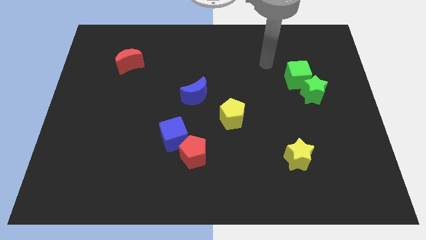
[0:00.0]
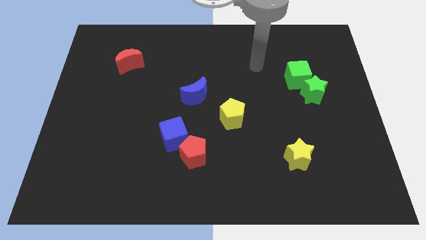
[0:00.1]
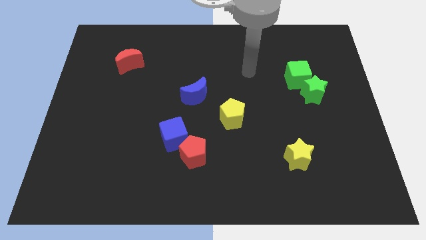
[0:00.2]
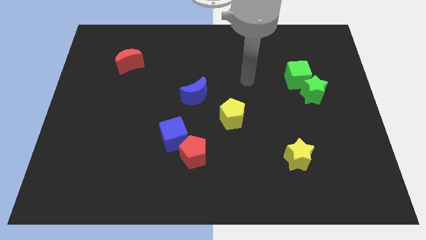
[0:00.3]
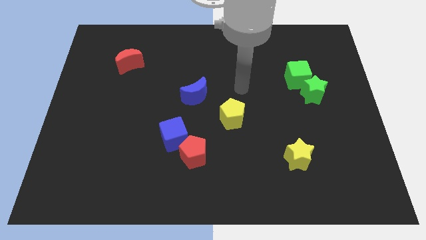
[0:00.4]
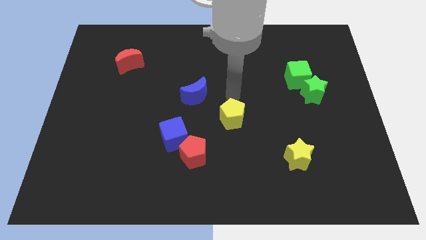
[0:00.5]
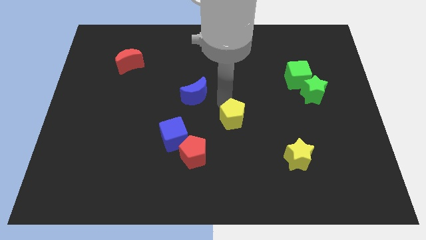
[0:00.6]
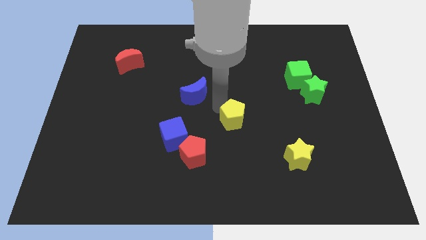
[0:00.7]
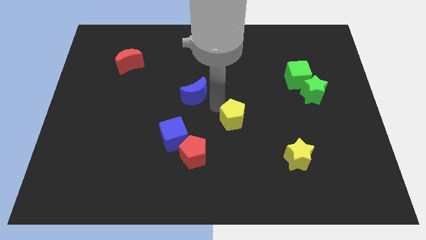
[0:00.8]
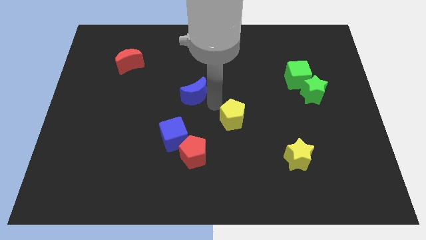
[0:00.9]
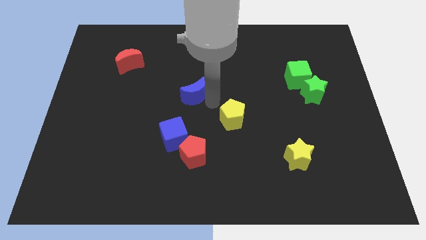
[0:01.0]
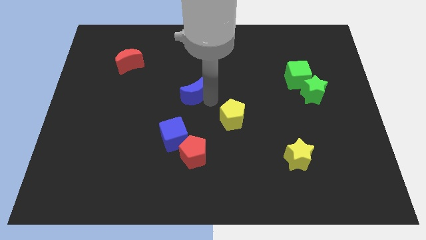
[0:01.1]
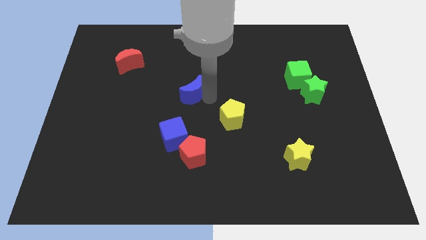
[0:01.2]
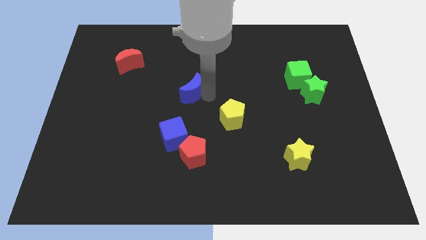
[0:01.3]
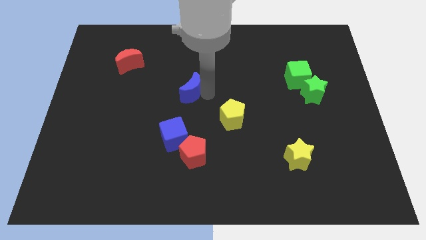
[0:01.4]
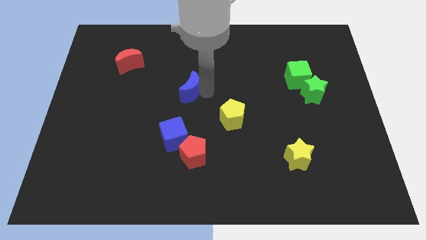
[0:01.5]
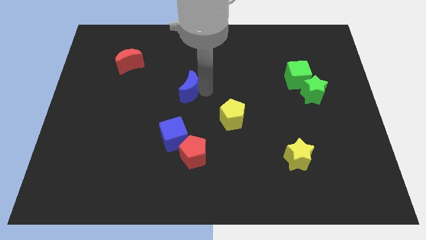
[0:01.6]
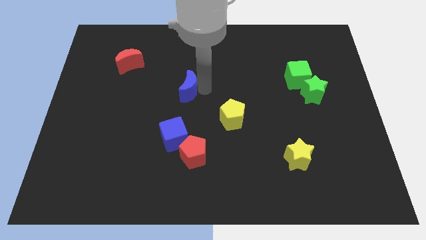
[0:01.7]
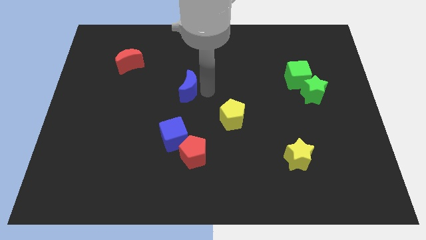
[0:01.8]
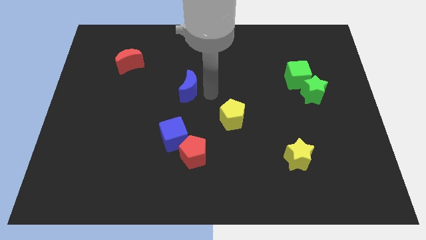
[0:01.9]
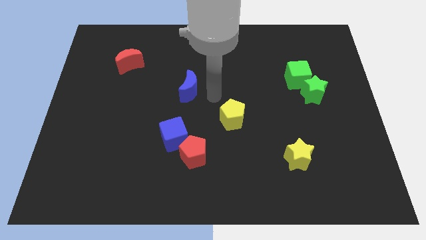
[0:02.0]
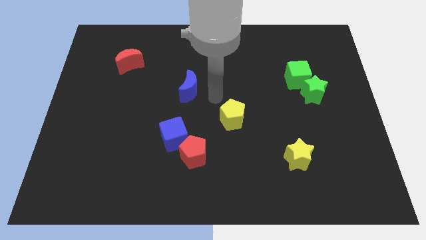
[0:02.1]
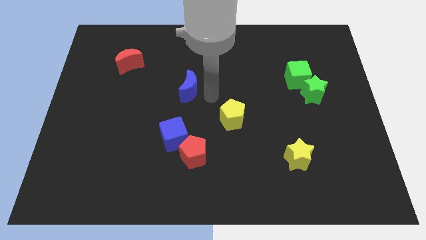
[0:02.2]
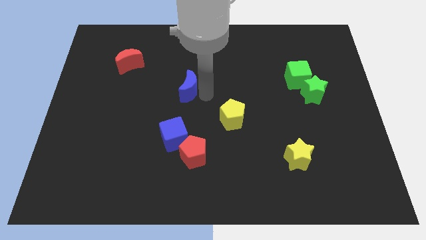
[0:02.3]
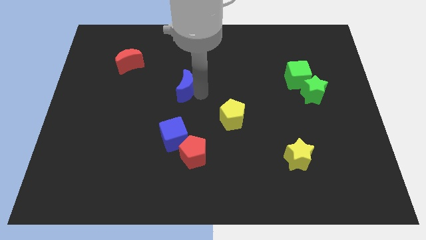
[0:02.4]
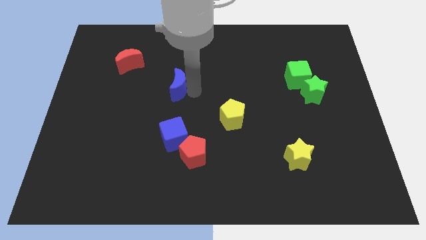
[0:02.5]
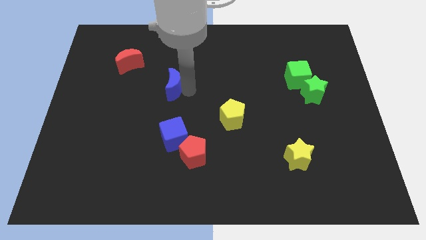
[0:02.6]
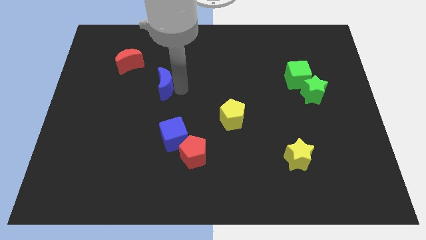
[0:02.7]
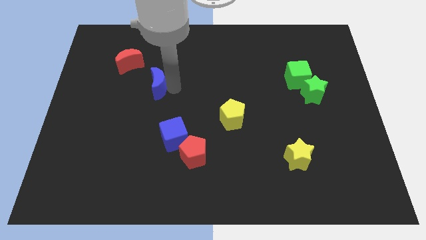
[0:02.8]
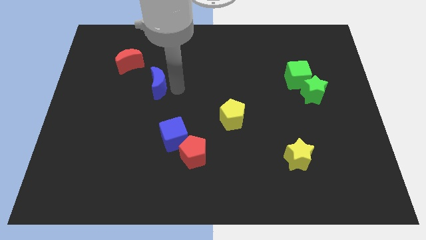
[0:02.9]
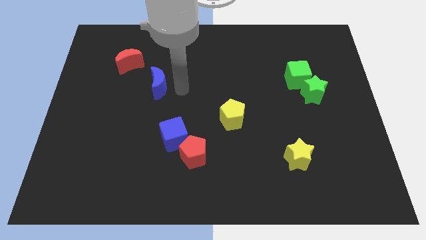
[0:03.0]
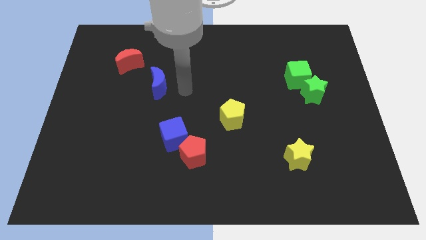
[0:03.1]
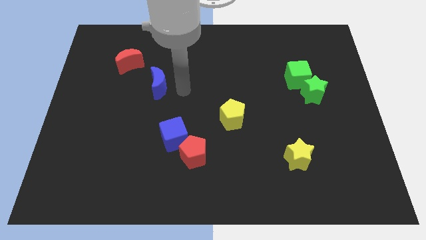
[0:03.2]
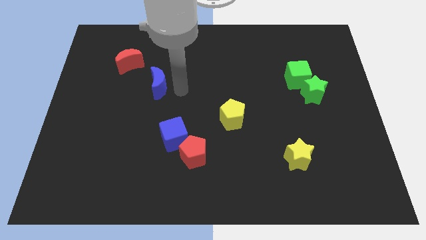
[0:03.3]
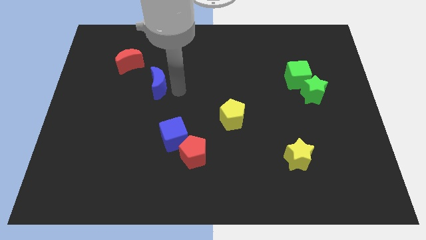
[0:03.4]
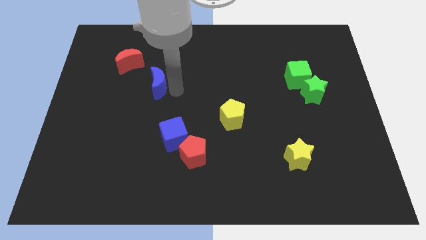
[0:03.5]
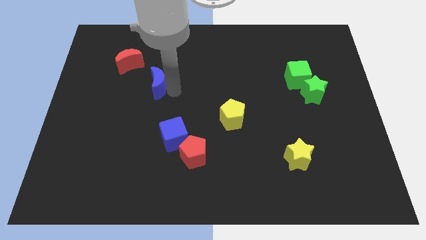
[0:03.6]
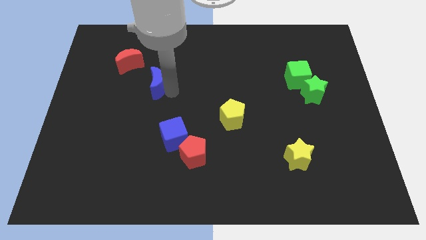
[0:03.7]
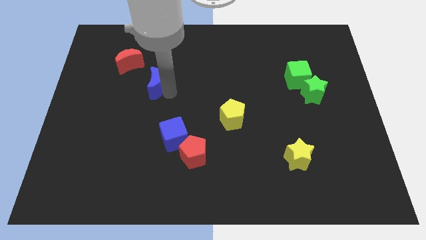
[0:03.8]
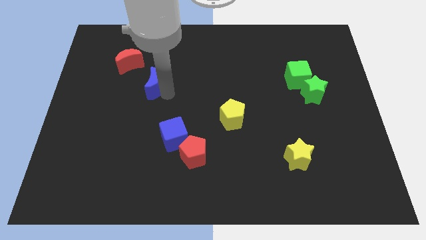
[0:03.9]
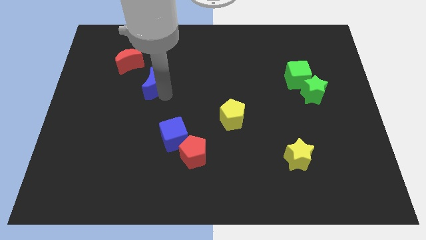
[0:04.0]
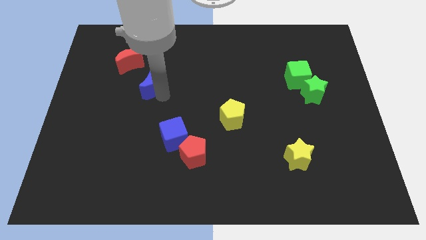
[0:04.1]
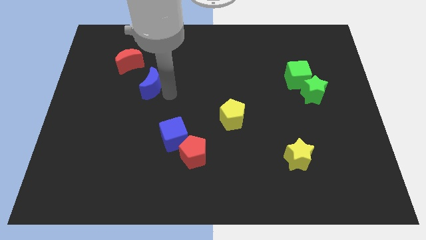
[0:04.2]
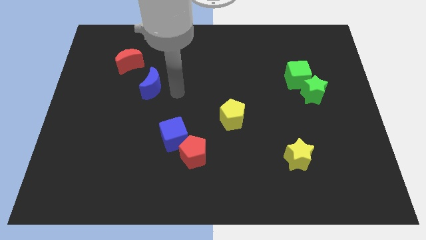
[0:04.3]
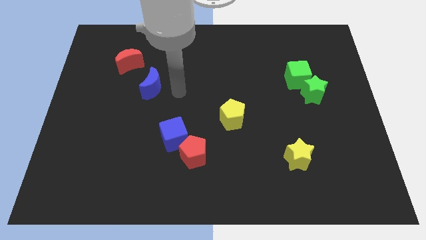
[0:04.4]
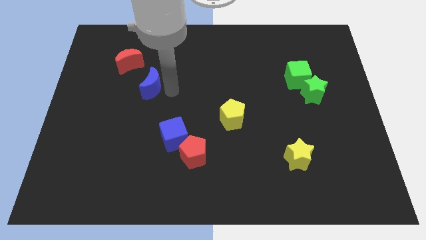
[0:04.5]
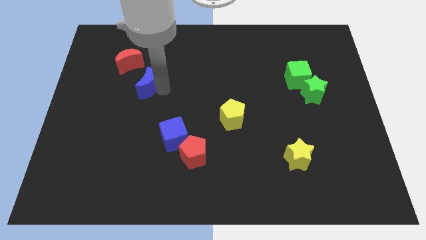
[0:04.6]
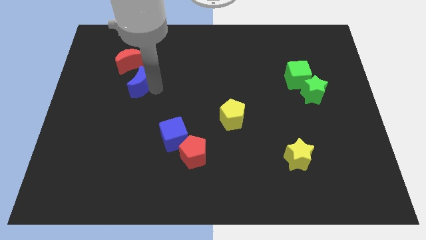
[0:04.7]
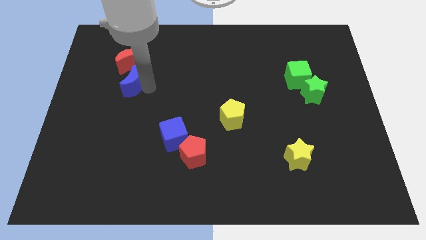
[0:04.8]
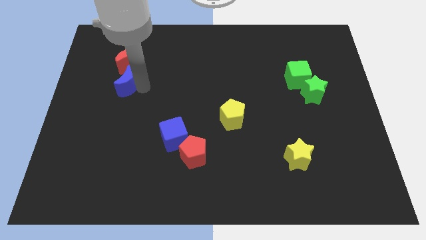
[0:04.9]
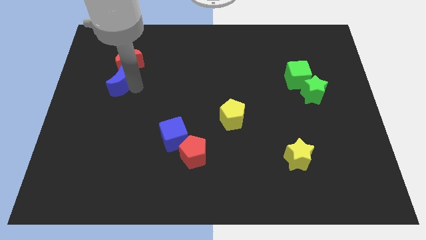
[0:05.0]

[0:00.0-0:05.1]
move the blue moon diagonally down and to the left of the red moon

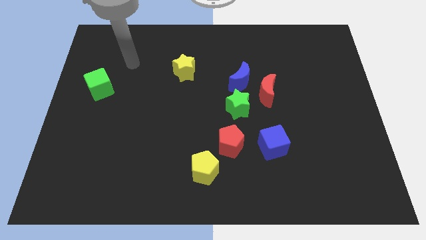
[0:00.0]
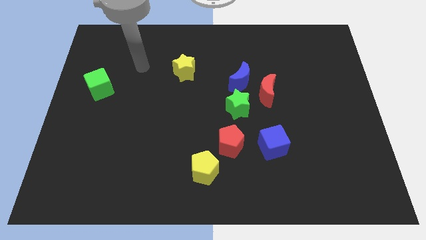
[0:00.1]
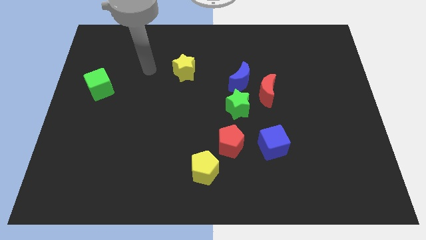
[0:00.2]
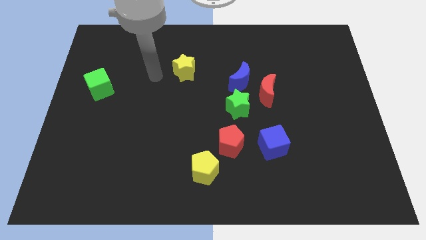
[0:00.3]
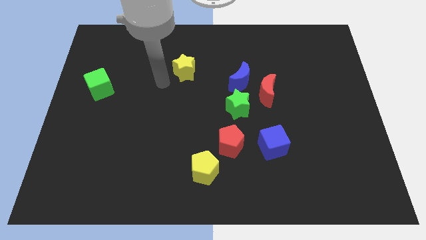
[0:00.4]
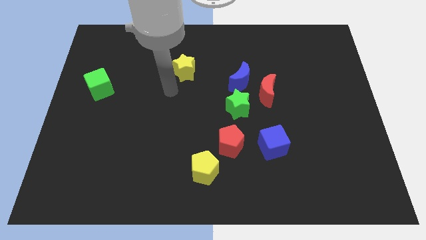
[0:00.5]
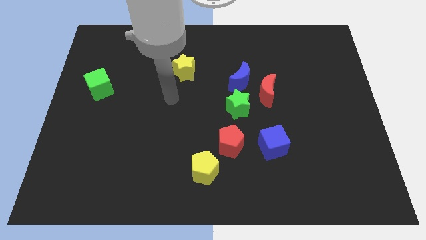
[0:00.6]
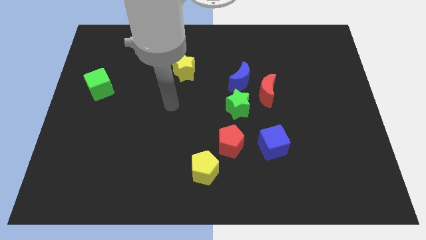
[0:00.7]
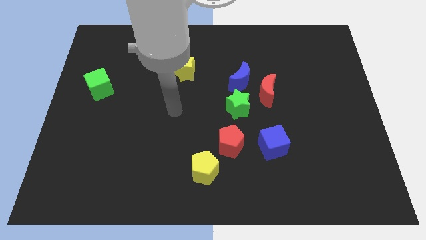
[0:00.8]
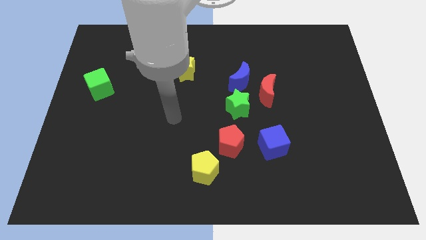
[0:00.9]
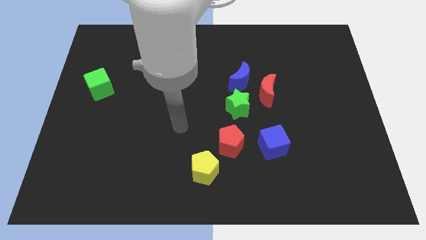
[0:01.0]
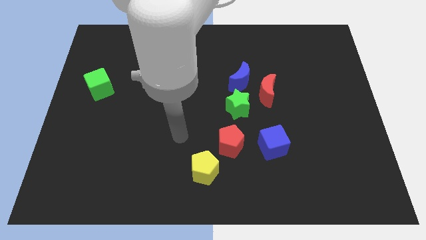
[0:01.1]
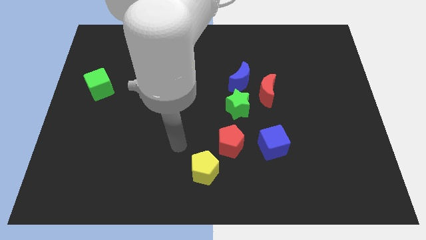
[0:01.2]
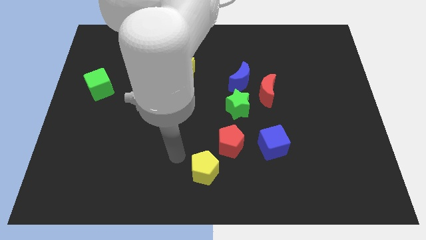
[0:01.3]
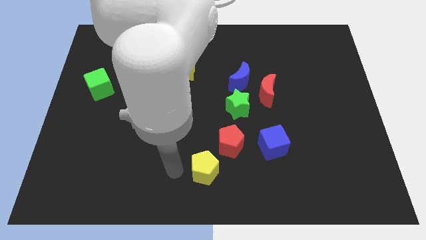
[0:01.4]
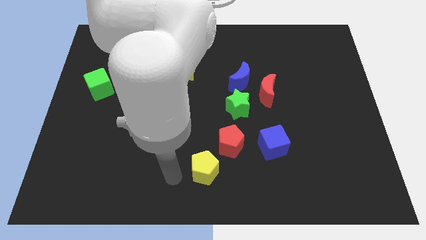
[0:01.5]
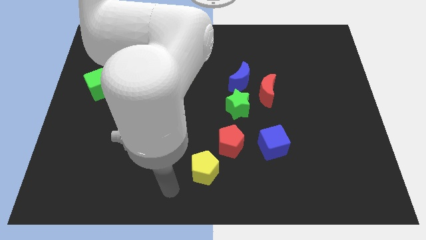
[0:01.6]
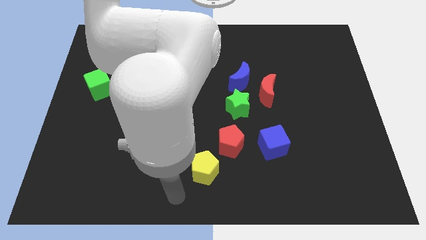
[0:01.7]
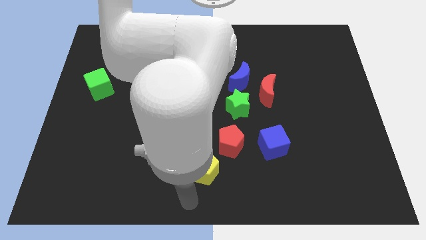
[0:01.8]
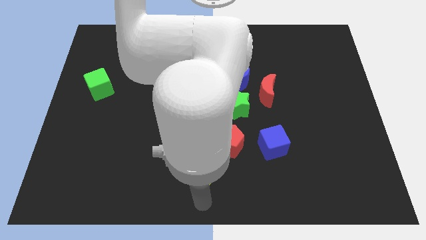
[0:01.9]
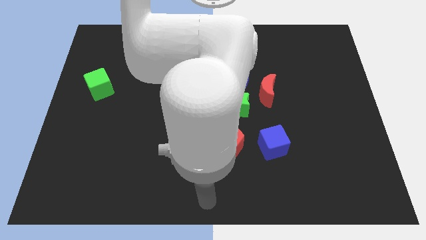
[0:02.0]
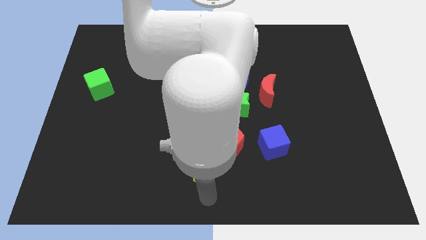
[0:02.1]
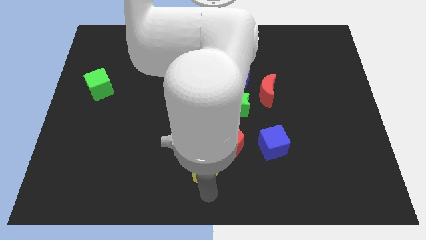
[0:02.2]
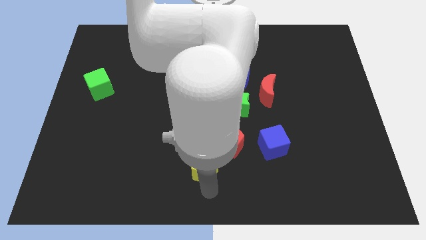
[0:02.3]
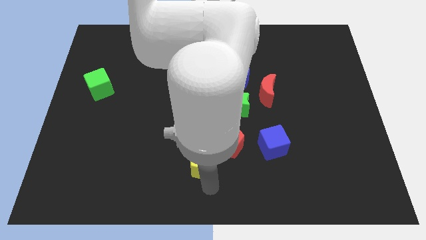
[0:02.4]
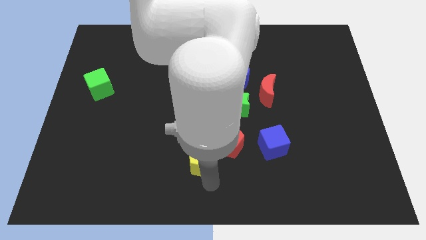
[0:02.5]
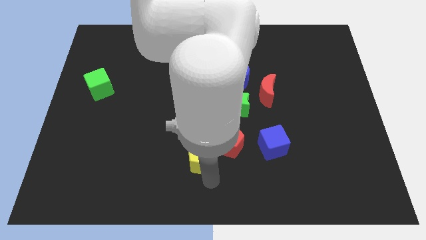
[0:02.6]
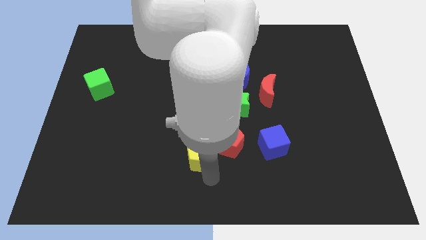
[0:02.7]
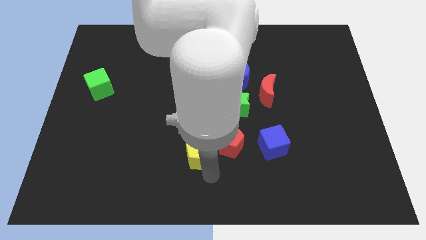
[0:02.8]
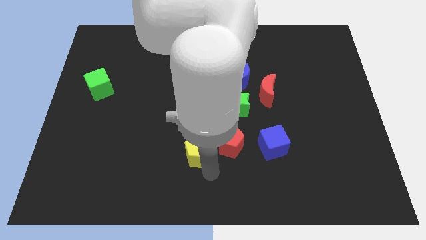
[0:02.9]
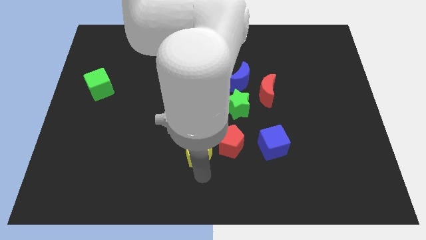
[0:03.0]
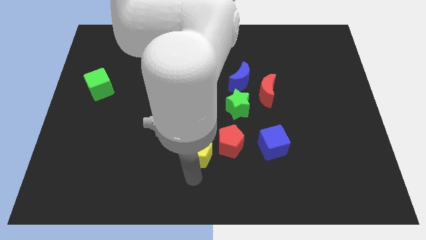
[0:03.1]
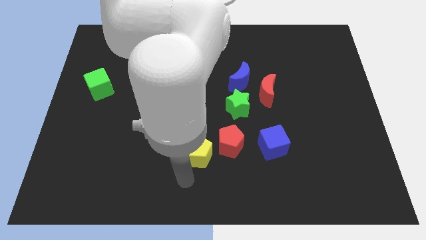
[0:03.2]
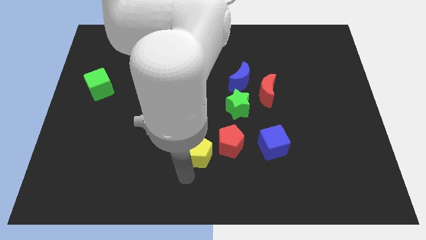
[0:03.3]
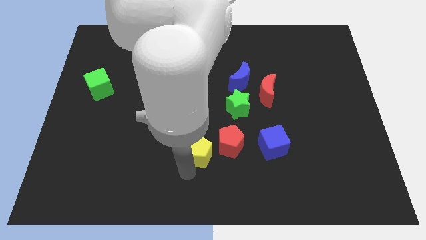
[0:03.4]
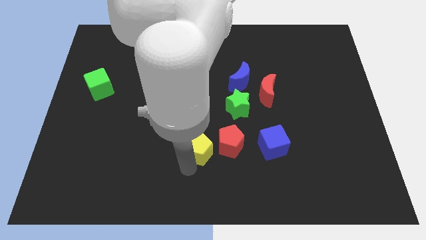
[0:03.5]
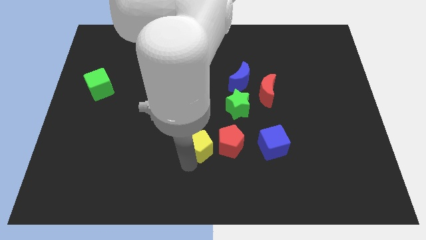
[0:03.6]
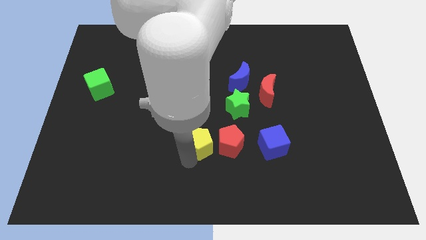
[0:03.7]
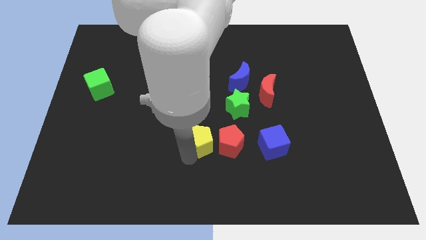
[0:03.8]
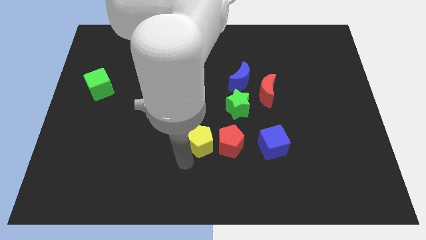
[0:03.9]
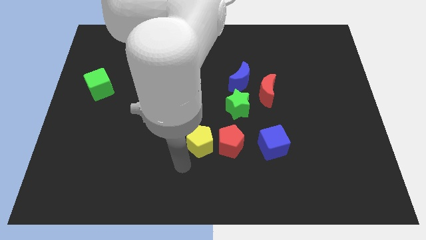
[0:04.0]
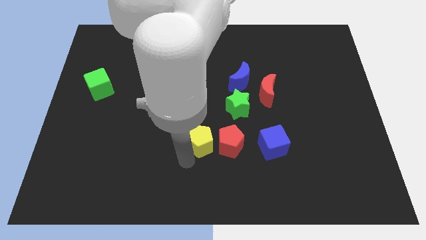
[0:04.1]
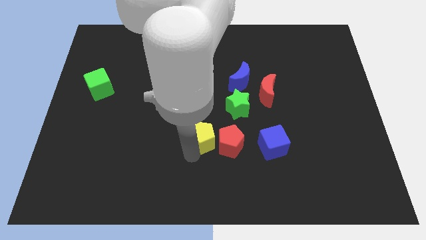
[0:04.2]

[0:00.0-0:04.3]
push the yellow pentagon diagonally down and to the left of the green star
